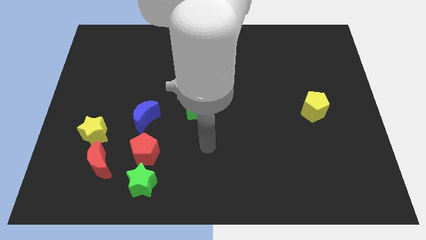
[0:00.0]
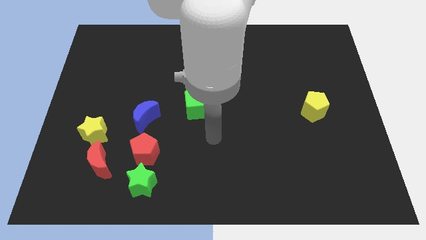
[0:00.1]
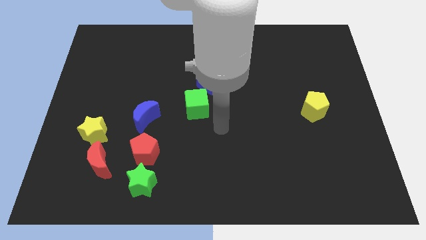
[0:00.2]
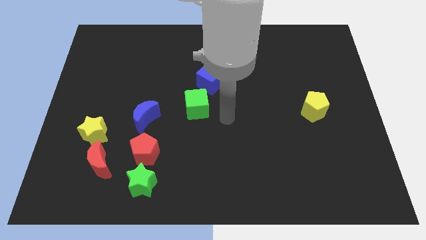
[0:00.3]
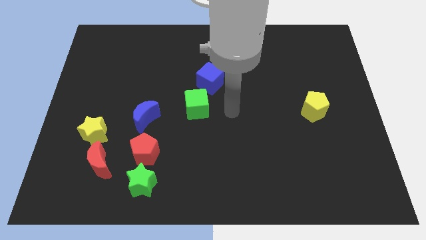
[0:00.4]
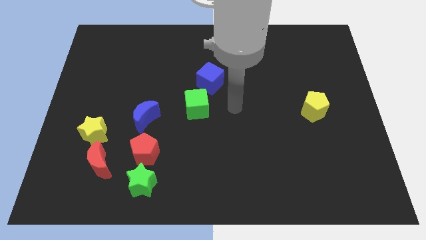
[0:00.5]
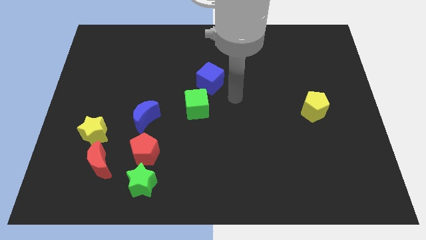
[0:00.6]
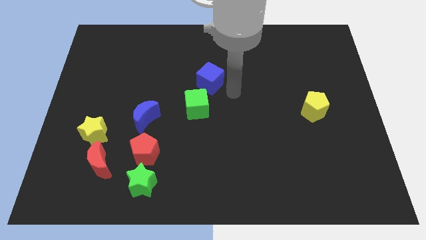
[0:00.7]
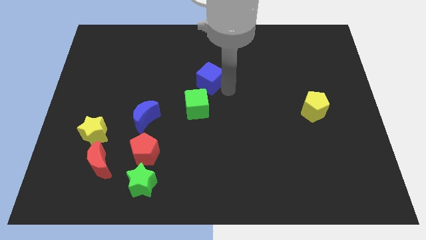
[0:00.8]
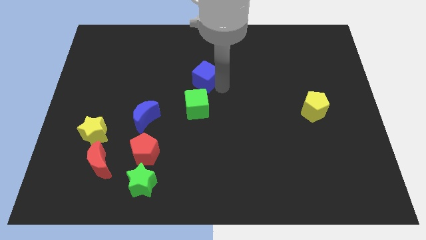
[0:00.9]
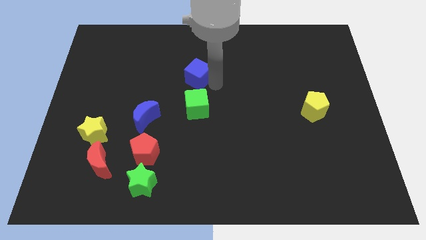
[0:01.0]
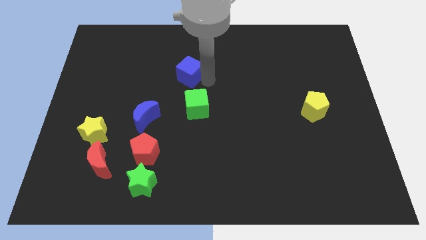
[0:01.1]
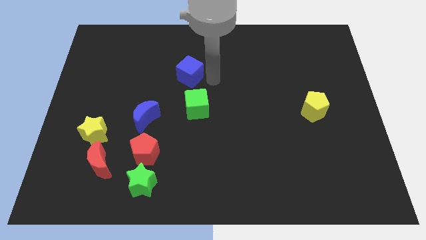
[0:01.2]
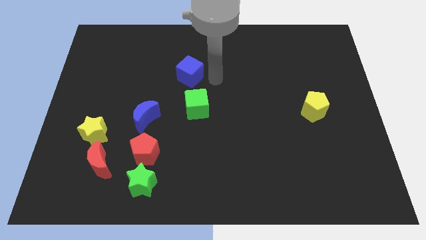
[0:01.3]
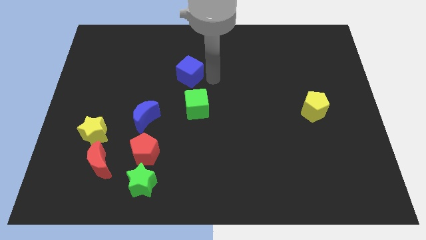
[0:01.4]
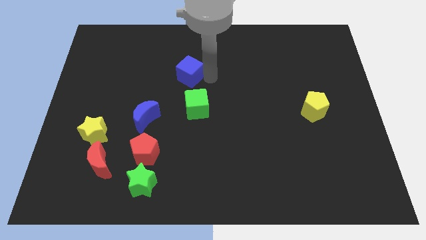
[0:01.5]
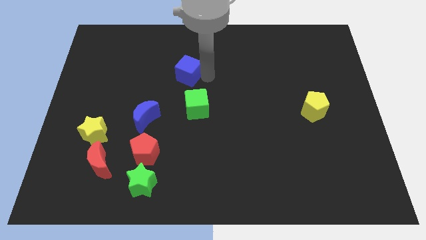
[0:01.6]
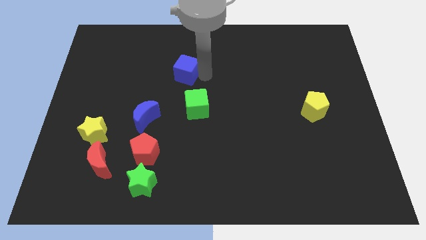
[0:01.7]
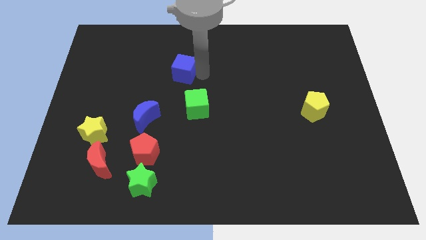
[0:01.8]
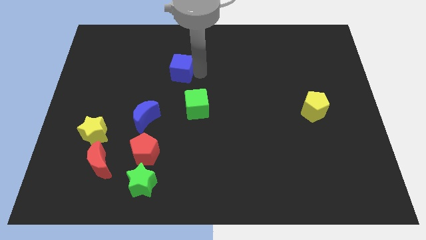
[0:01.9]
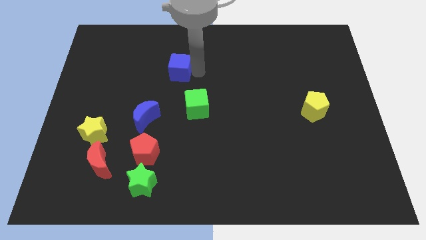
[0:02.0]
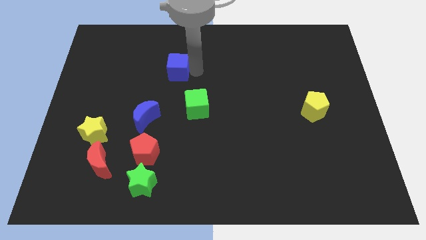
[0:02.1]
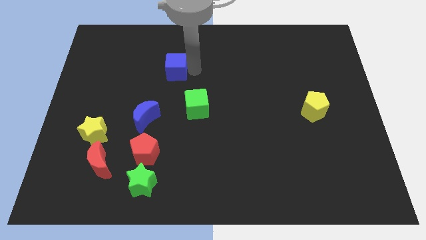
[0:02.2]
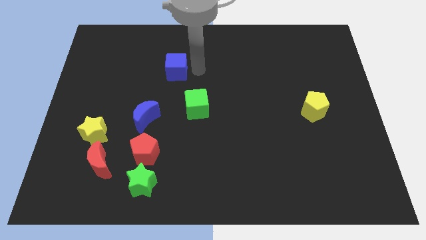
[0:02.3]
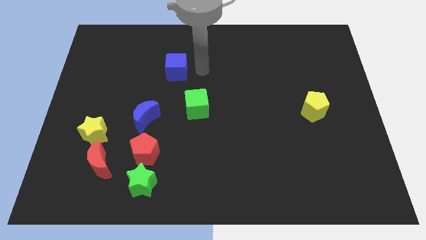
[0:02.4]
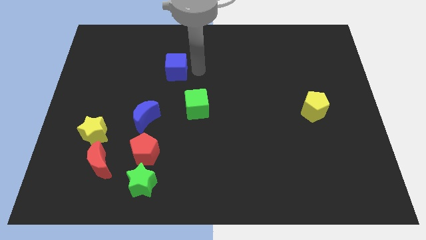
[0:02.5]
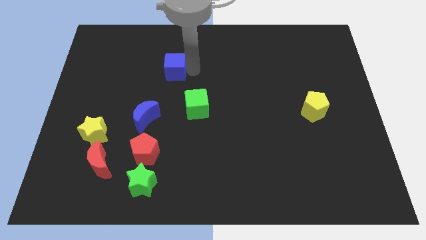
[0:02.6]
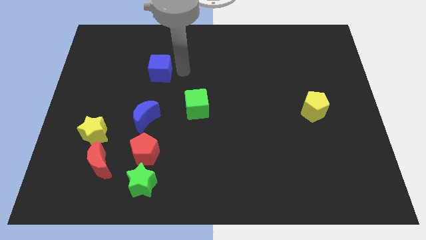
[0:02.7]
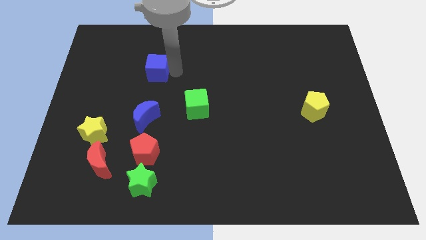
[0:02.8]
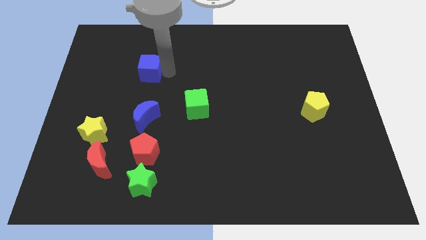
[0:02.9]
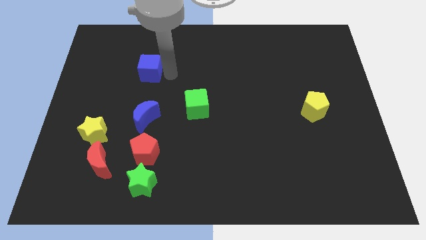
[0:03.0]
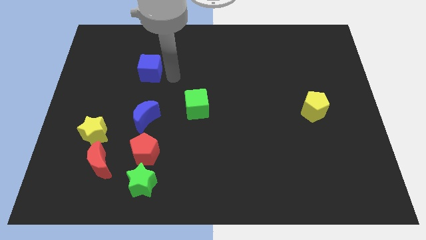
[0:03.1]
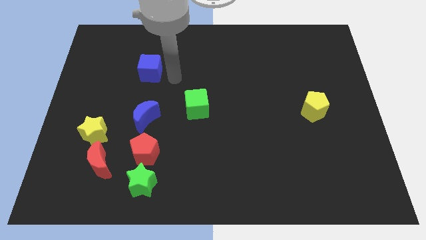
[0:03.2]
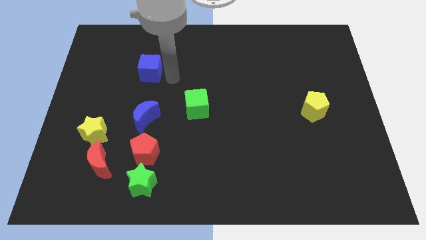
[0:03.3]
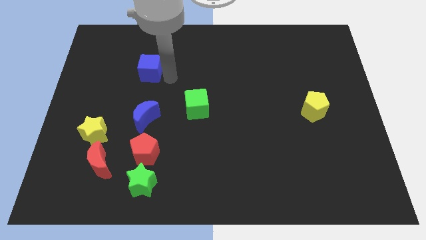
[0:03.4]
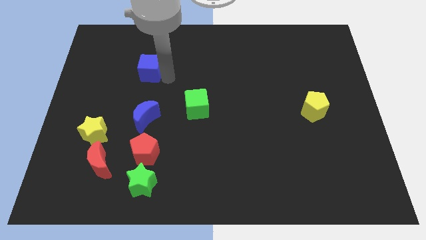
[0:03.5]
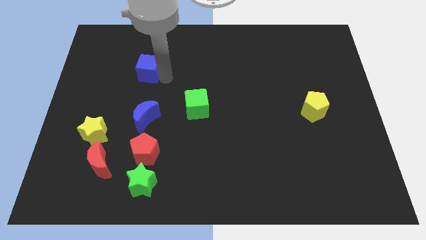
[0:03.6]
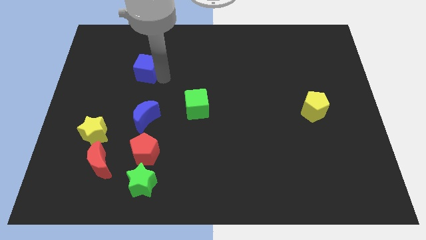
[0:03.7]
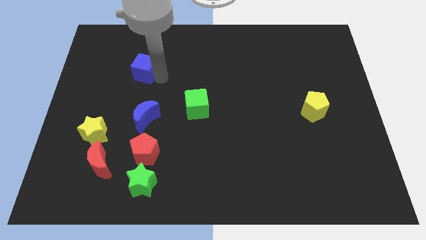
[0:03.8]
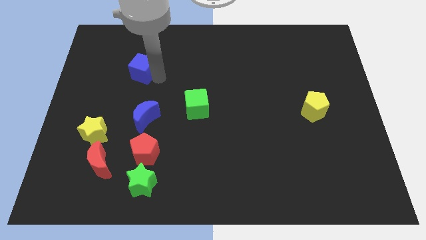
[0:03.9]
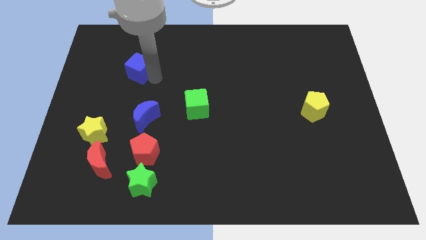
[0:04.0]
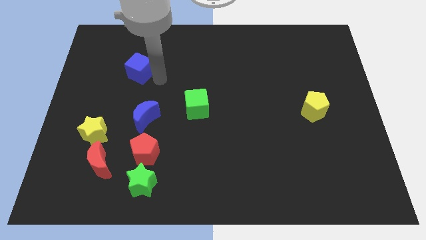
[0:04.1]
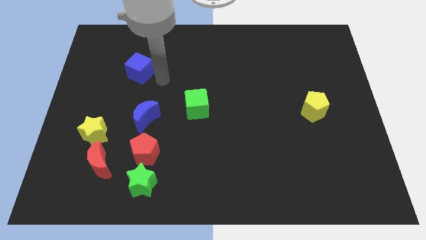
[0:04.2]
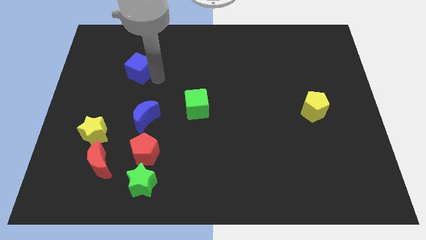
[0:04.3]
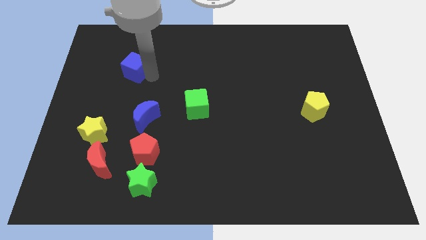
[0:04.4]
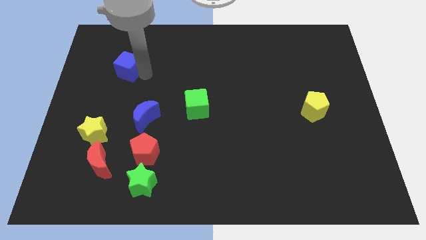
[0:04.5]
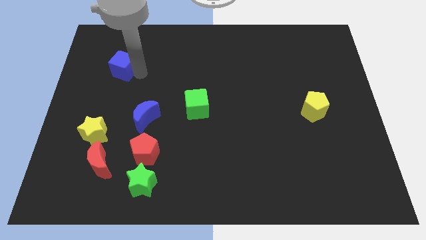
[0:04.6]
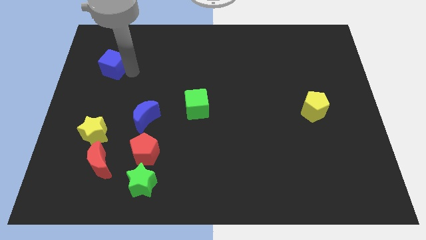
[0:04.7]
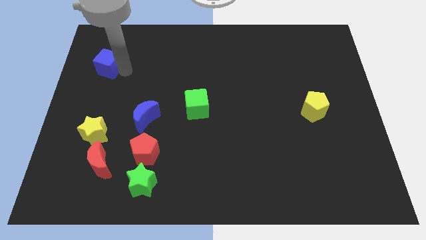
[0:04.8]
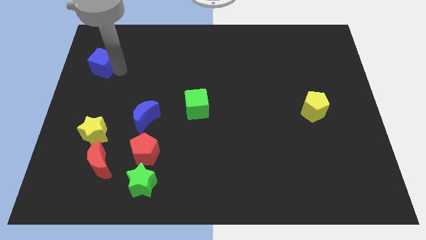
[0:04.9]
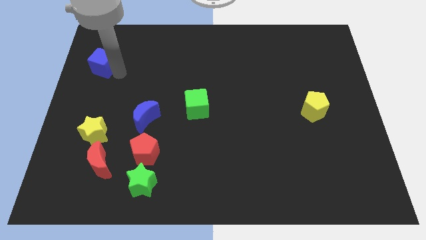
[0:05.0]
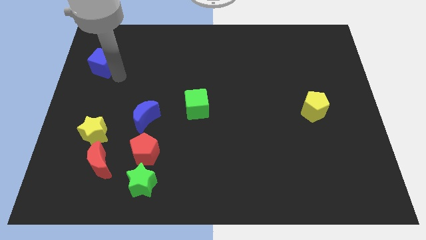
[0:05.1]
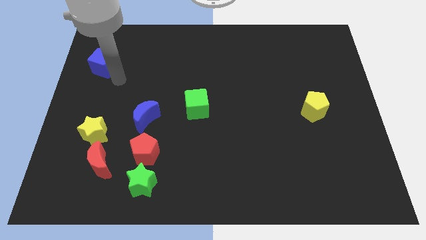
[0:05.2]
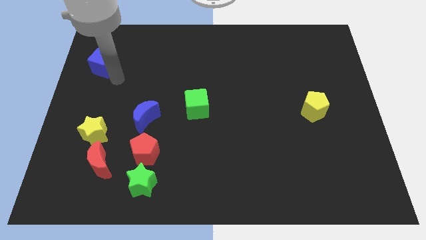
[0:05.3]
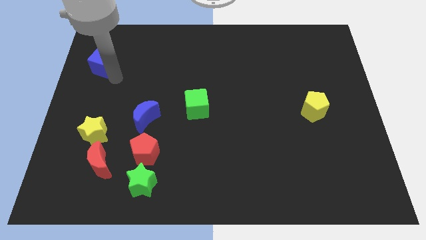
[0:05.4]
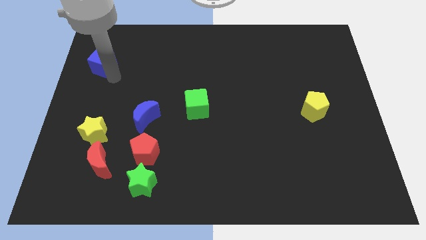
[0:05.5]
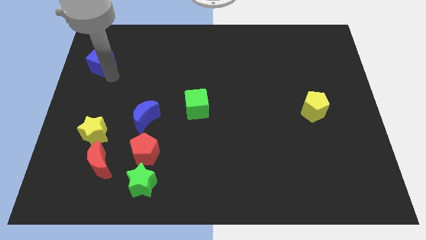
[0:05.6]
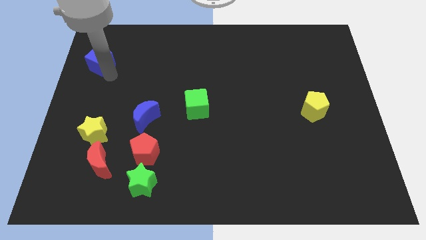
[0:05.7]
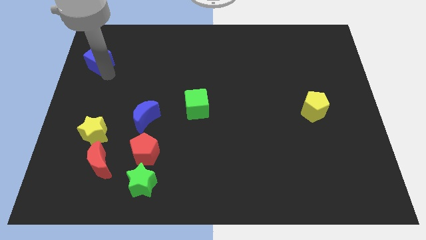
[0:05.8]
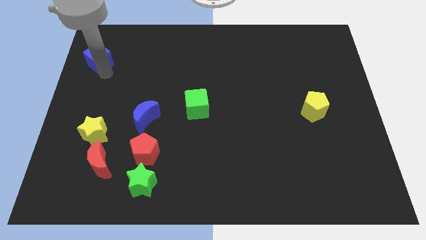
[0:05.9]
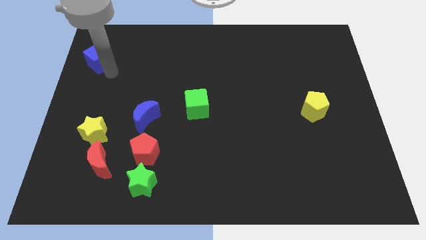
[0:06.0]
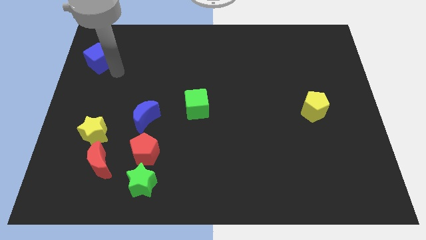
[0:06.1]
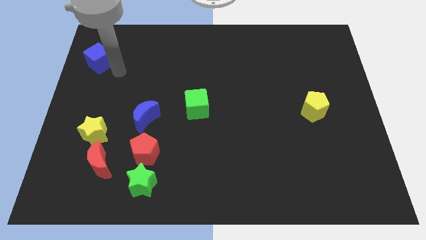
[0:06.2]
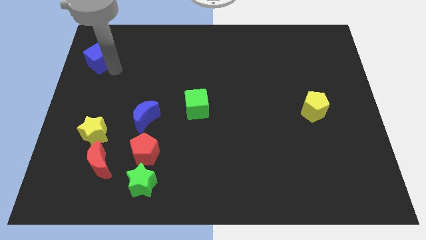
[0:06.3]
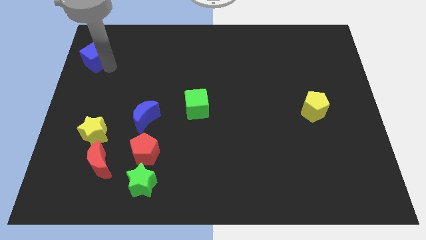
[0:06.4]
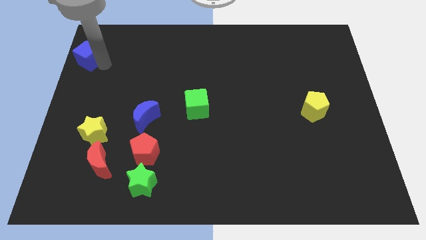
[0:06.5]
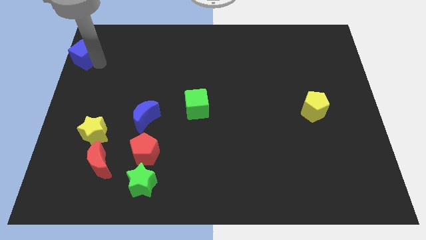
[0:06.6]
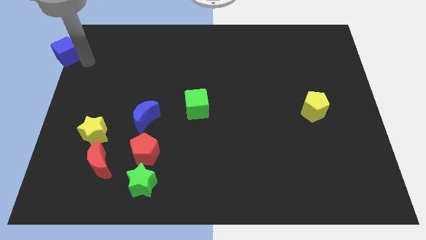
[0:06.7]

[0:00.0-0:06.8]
move the blue cube to the top left of the board

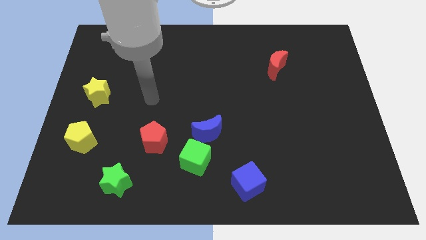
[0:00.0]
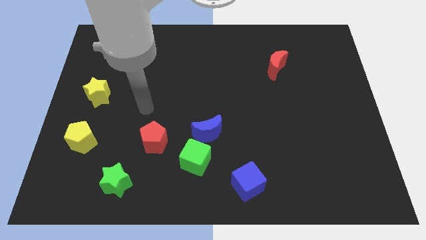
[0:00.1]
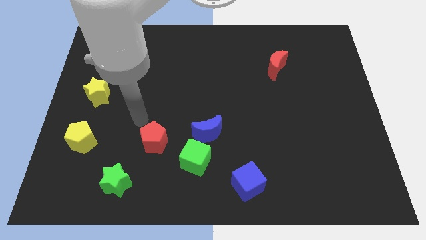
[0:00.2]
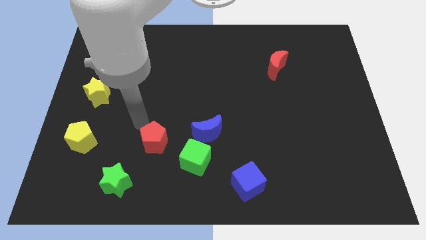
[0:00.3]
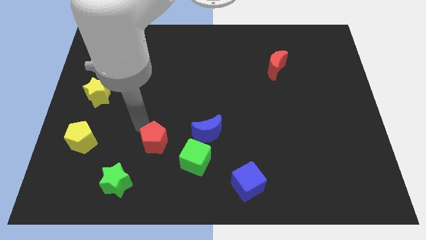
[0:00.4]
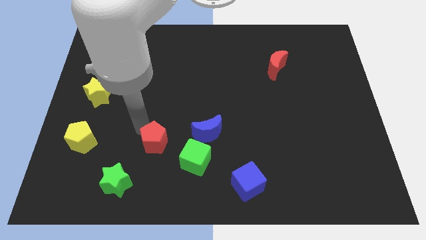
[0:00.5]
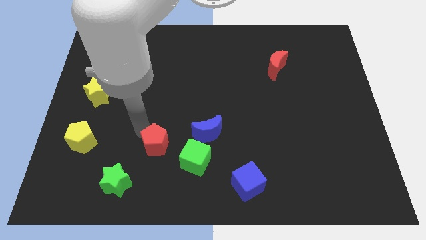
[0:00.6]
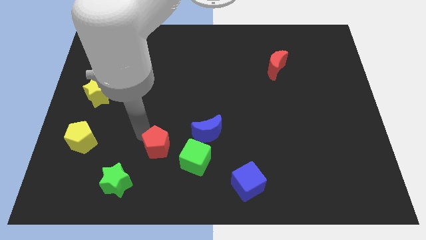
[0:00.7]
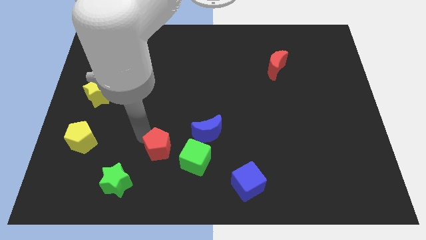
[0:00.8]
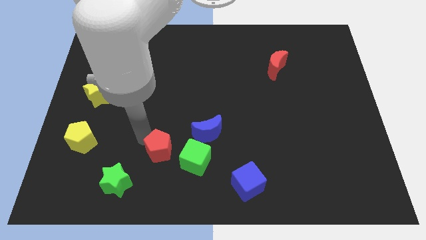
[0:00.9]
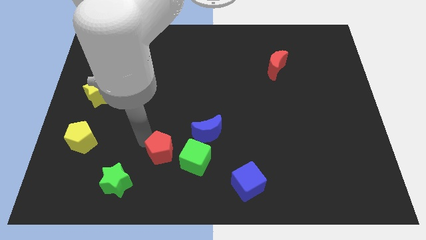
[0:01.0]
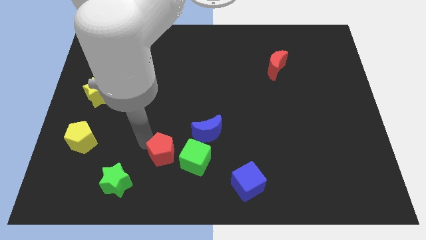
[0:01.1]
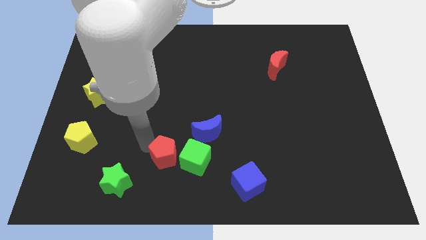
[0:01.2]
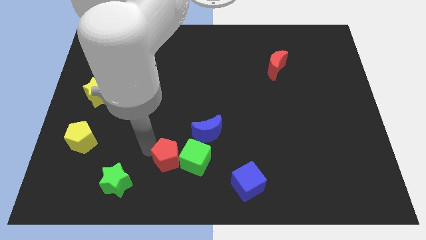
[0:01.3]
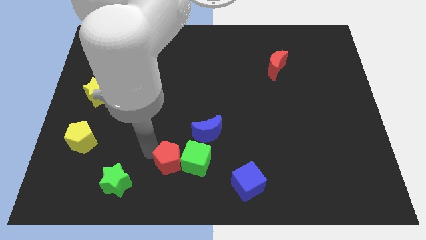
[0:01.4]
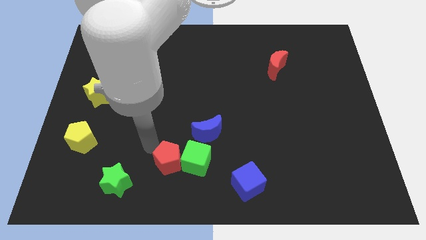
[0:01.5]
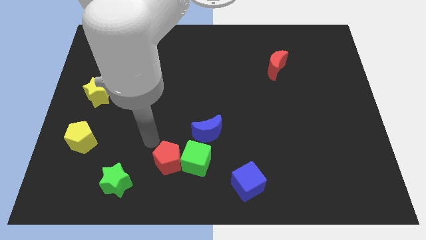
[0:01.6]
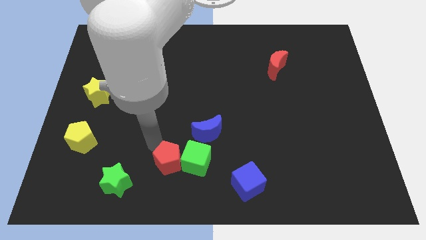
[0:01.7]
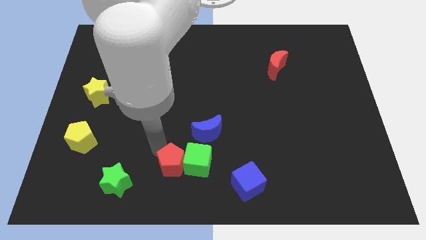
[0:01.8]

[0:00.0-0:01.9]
put the red pentagon to the bottom side
